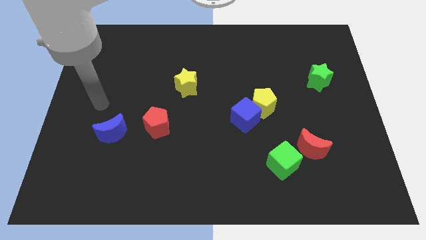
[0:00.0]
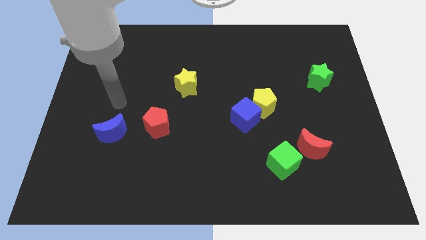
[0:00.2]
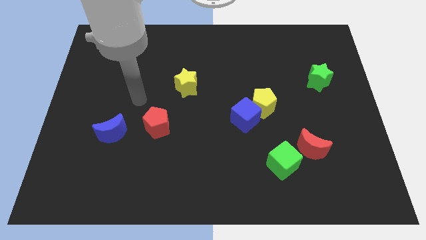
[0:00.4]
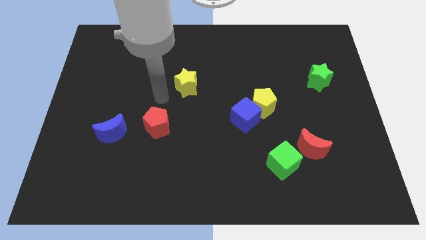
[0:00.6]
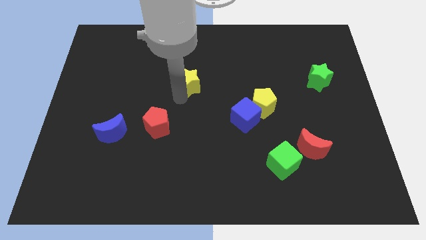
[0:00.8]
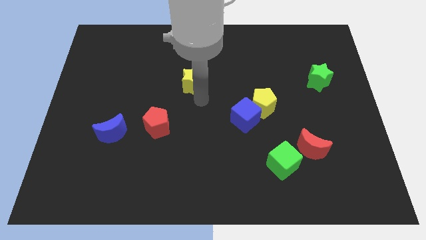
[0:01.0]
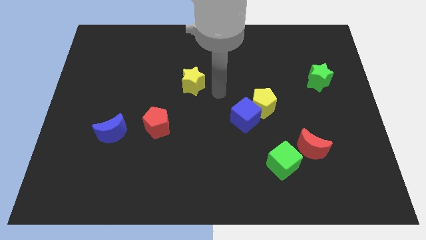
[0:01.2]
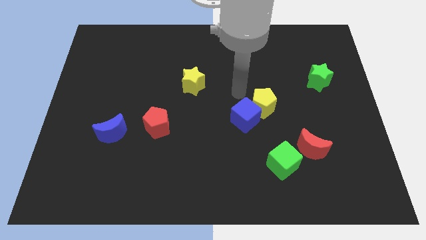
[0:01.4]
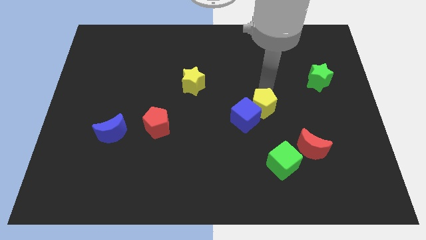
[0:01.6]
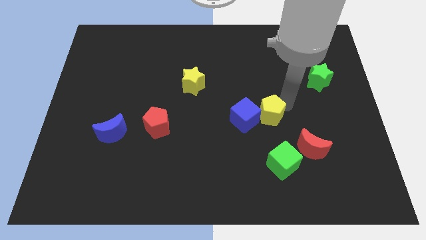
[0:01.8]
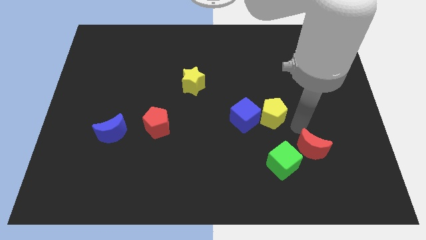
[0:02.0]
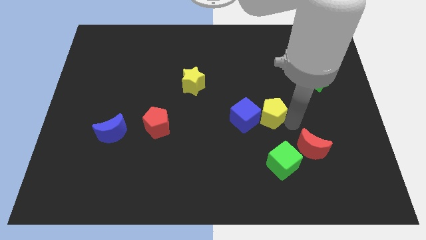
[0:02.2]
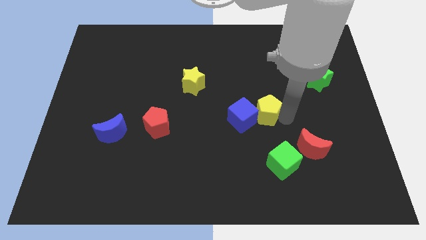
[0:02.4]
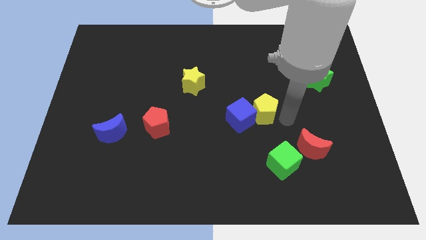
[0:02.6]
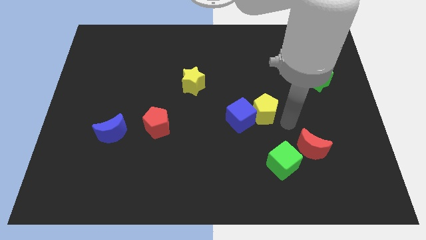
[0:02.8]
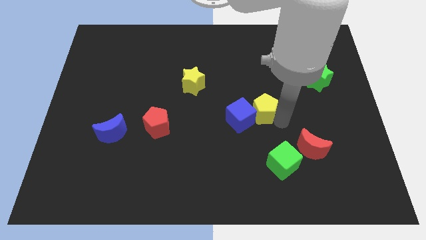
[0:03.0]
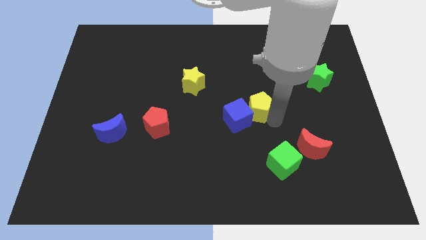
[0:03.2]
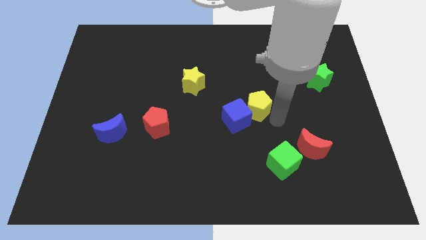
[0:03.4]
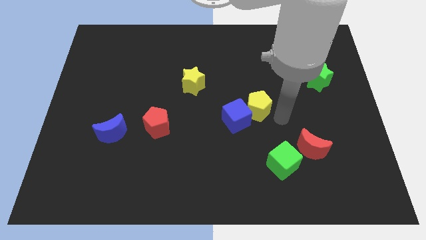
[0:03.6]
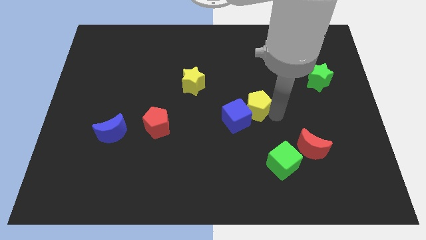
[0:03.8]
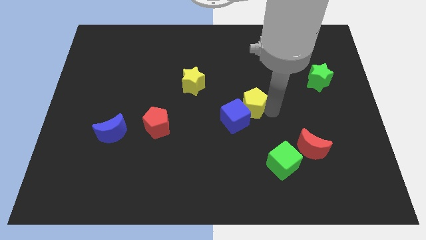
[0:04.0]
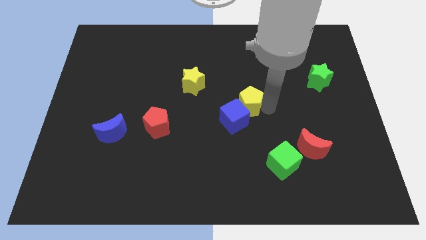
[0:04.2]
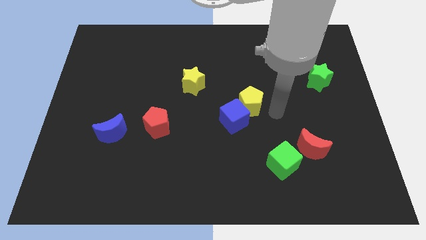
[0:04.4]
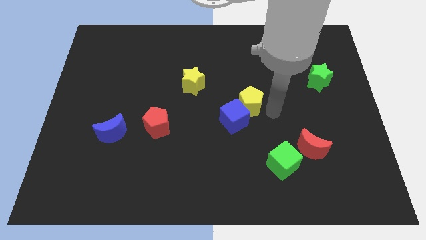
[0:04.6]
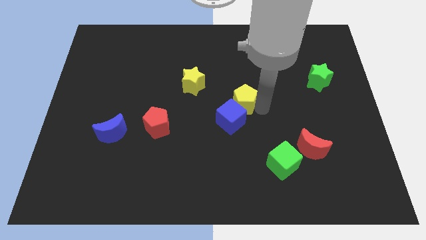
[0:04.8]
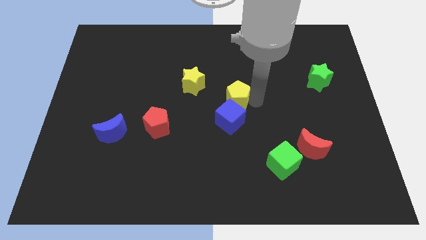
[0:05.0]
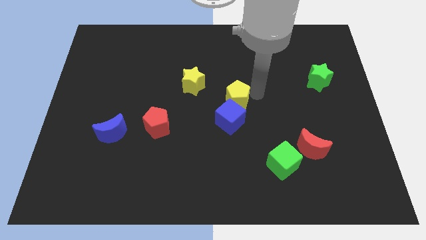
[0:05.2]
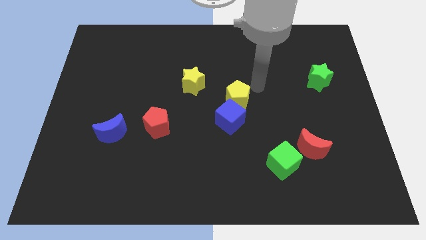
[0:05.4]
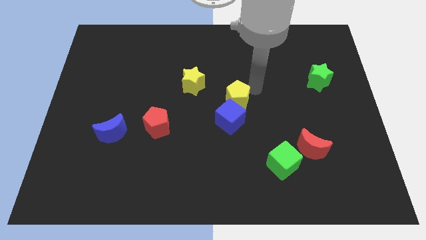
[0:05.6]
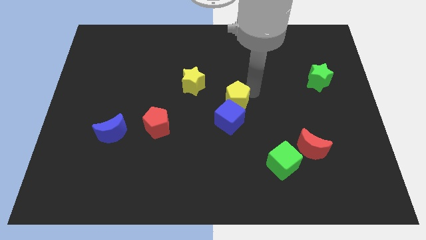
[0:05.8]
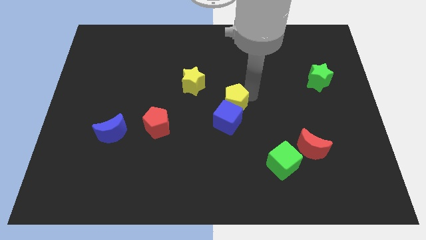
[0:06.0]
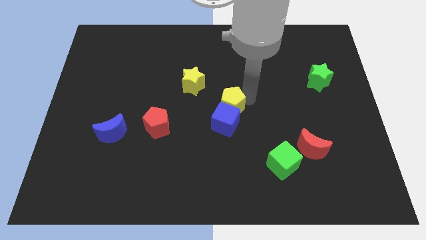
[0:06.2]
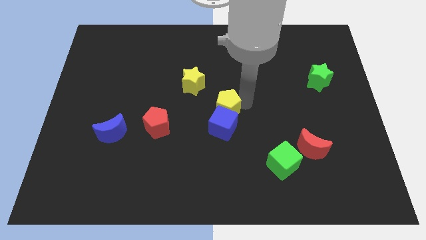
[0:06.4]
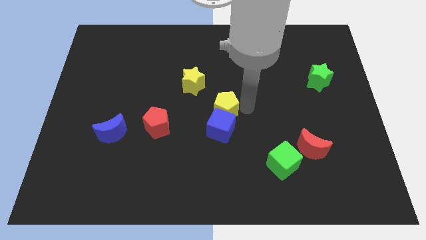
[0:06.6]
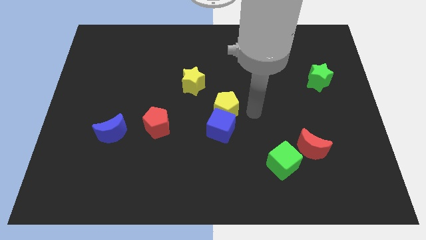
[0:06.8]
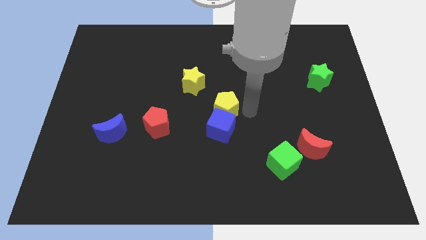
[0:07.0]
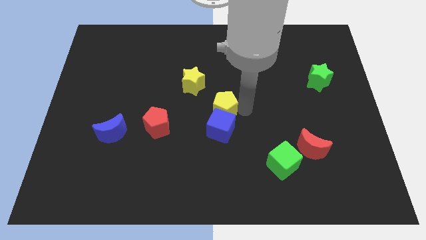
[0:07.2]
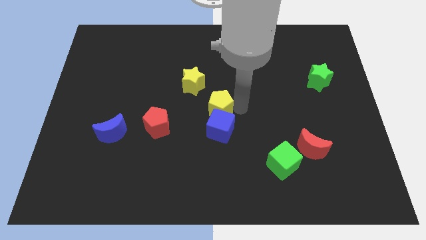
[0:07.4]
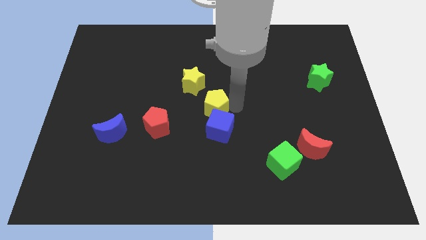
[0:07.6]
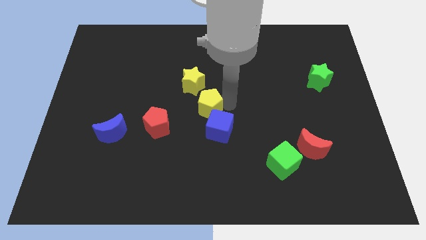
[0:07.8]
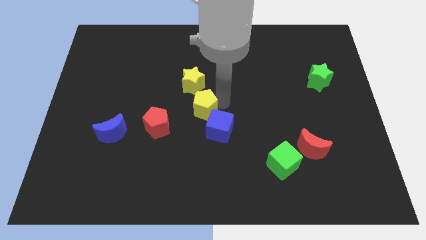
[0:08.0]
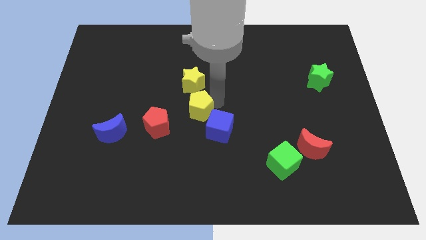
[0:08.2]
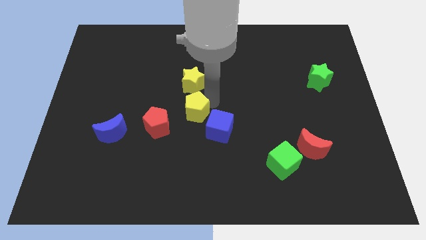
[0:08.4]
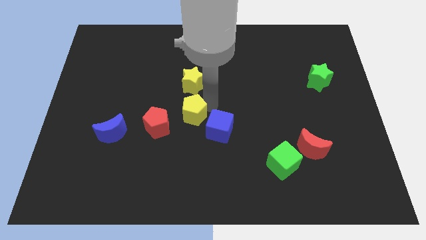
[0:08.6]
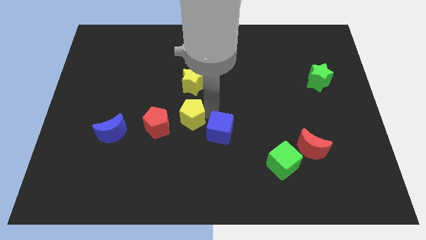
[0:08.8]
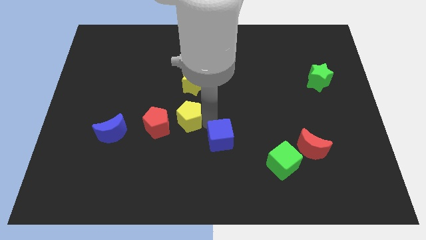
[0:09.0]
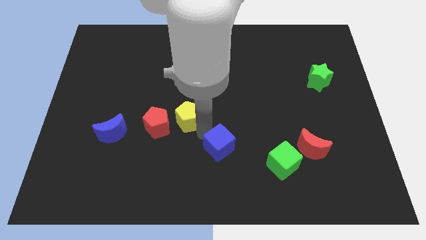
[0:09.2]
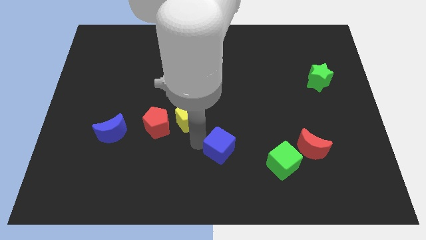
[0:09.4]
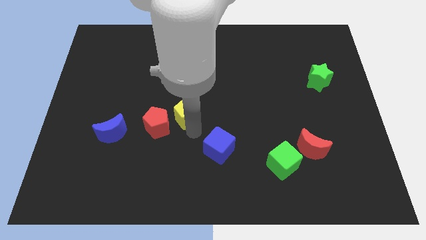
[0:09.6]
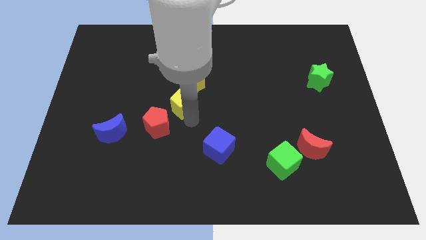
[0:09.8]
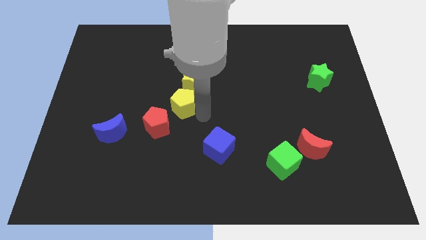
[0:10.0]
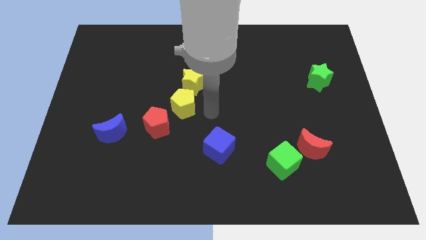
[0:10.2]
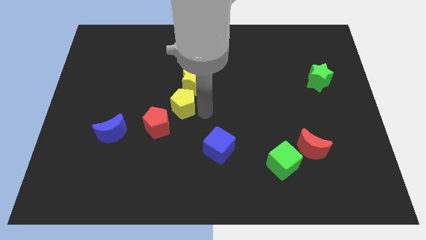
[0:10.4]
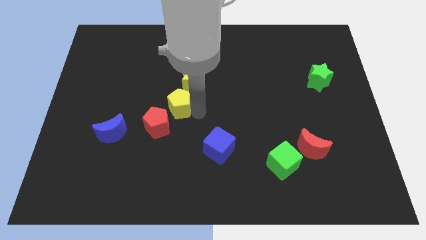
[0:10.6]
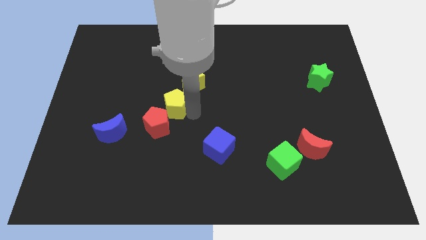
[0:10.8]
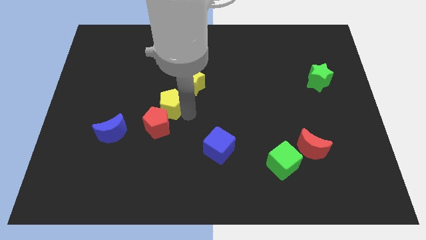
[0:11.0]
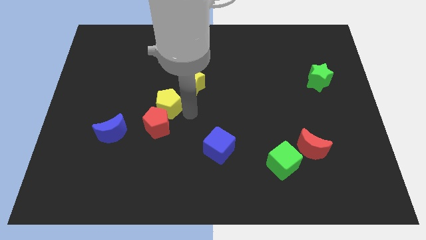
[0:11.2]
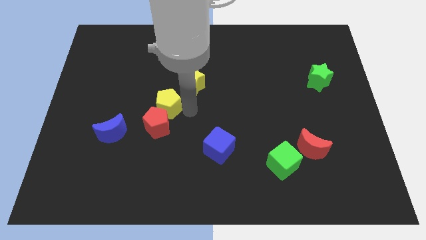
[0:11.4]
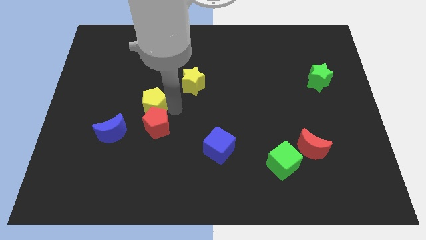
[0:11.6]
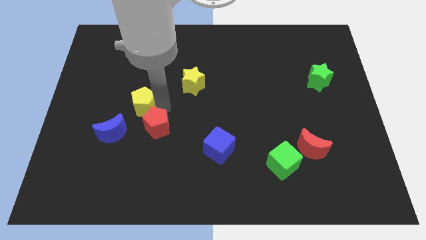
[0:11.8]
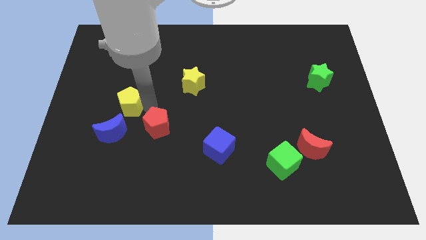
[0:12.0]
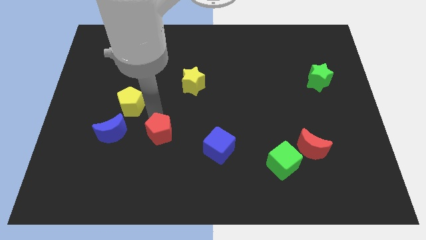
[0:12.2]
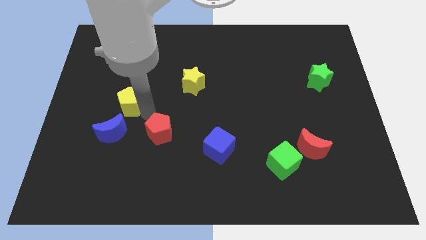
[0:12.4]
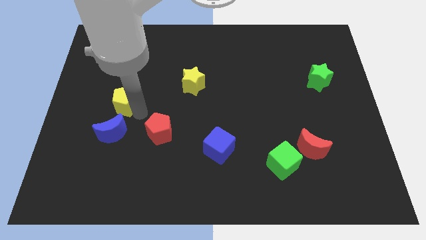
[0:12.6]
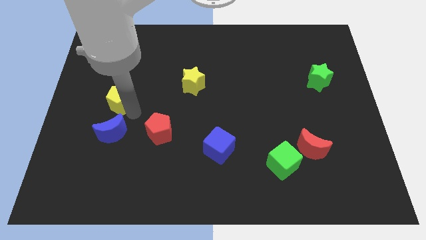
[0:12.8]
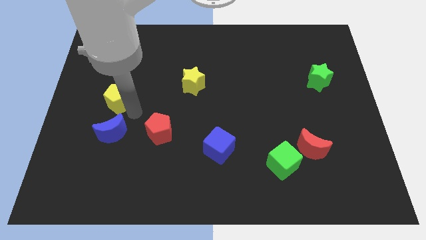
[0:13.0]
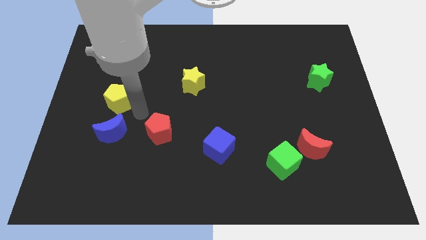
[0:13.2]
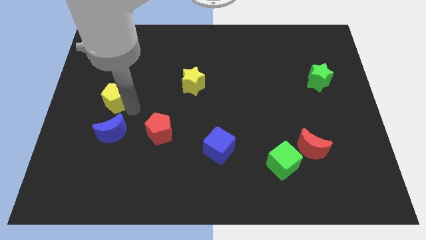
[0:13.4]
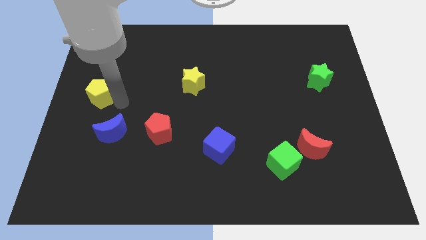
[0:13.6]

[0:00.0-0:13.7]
put the yellow pentagon to the left side of the board

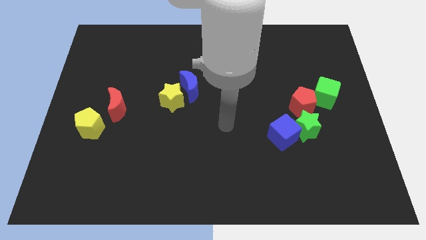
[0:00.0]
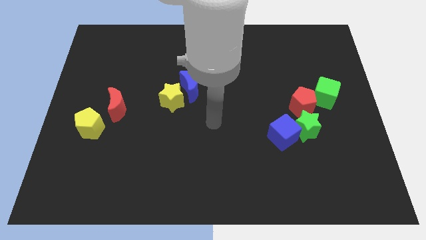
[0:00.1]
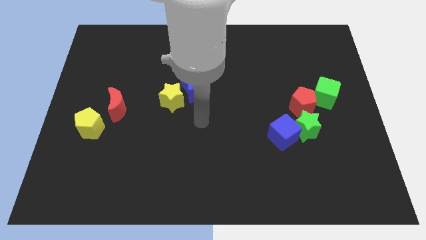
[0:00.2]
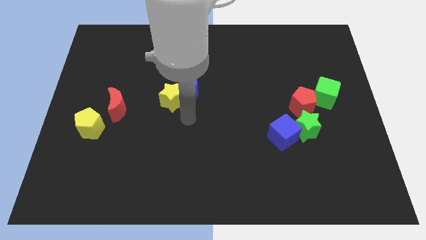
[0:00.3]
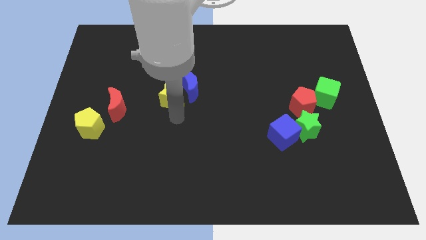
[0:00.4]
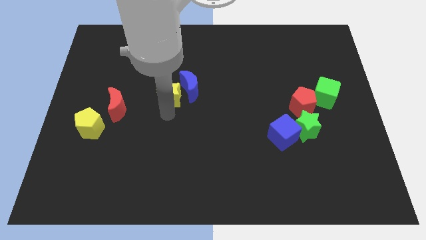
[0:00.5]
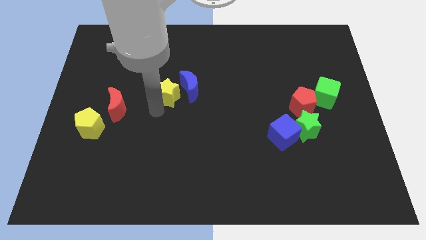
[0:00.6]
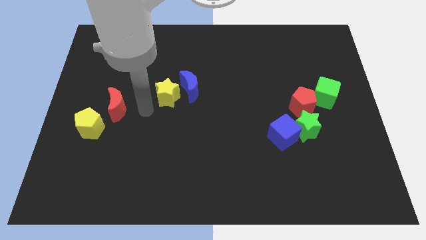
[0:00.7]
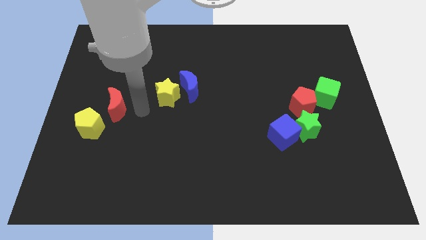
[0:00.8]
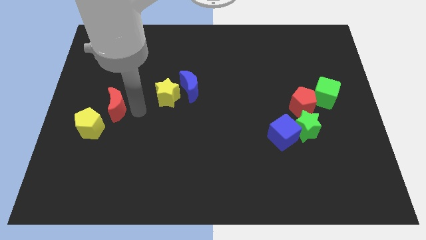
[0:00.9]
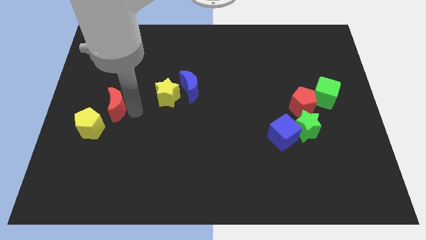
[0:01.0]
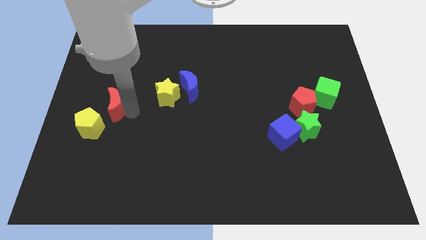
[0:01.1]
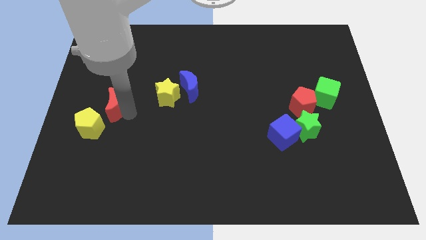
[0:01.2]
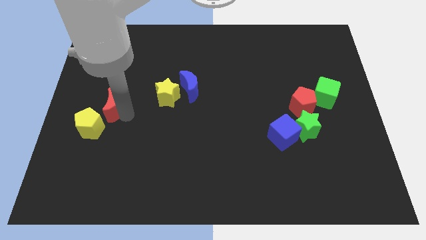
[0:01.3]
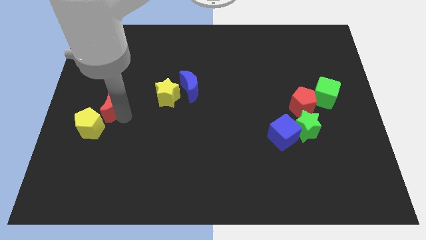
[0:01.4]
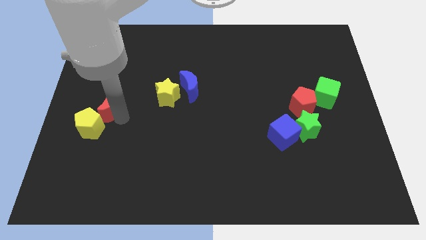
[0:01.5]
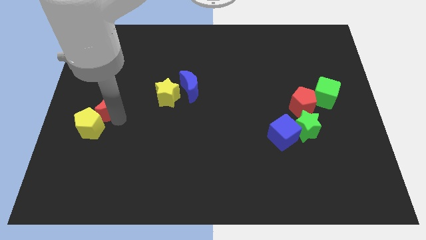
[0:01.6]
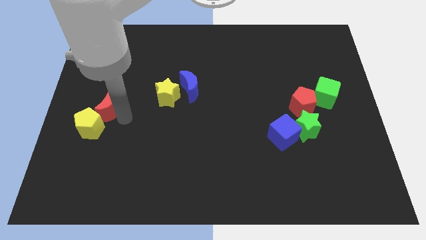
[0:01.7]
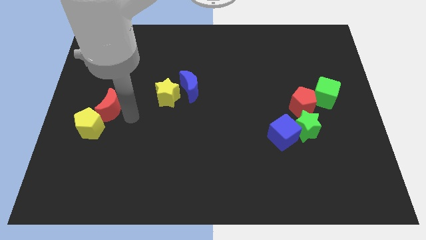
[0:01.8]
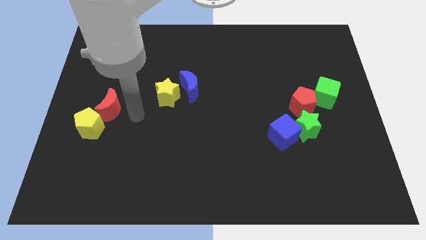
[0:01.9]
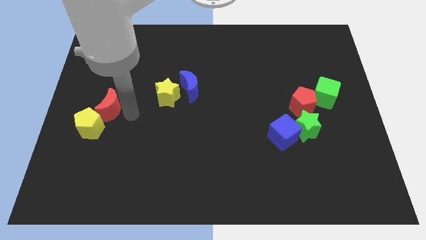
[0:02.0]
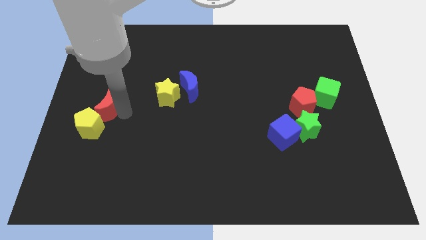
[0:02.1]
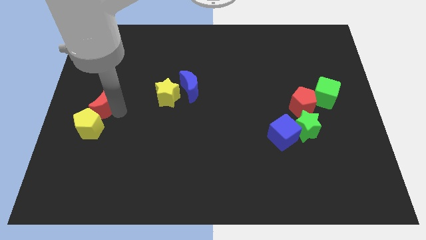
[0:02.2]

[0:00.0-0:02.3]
move the red moon to the left side of the board
